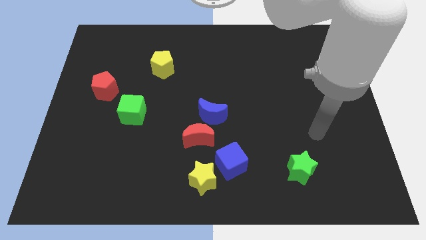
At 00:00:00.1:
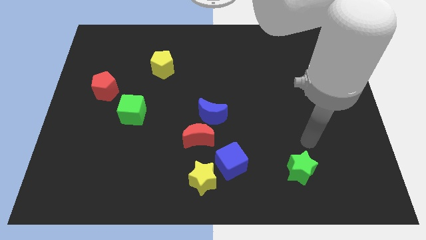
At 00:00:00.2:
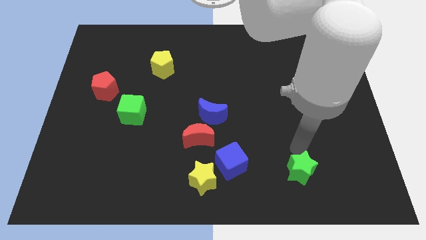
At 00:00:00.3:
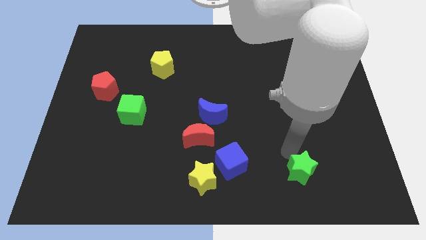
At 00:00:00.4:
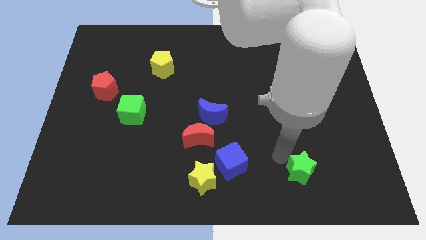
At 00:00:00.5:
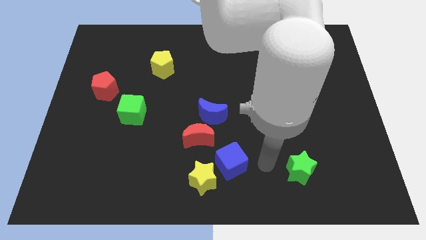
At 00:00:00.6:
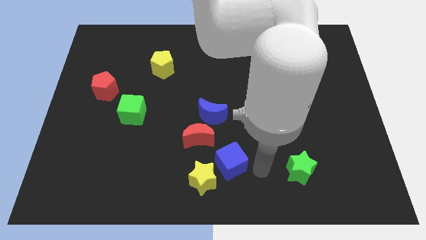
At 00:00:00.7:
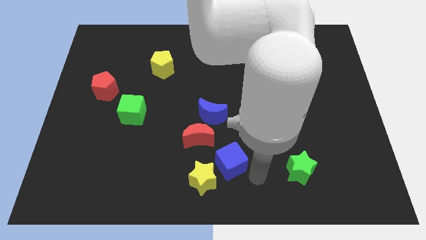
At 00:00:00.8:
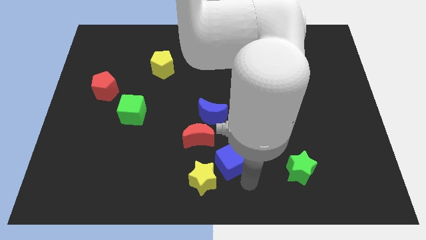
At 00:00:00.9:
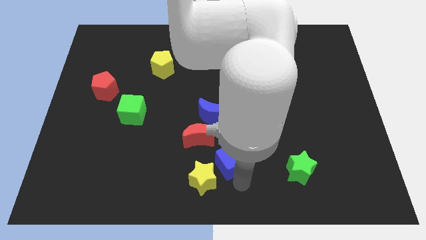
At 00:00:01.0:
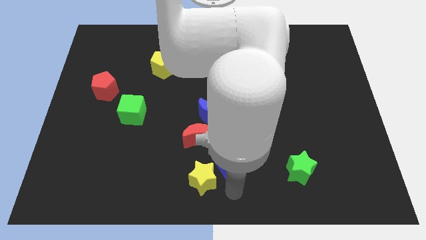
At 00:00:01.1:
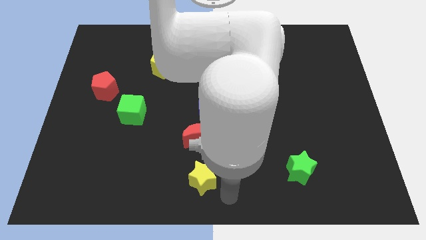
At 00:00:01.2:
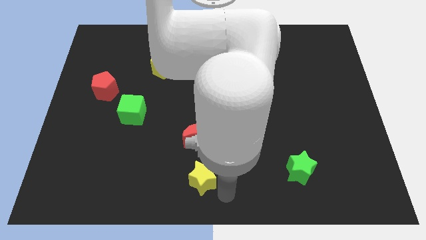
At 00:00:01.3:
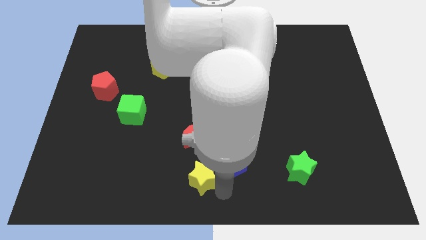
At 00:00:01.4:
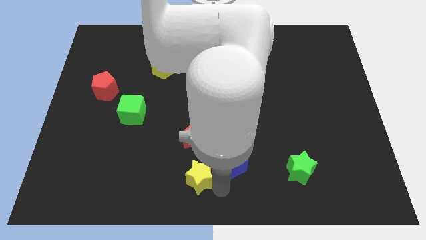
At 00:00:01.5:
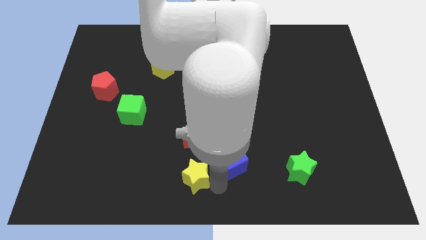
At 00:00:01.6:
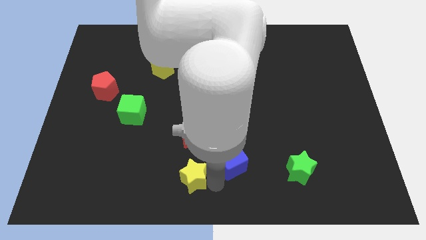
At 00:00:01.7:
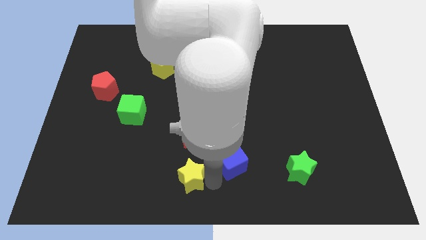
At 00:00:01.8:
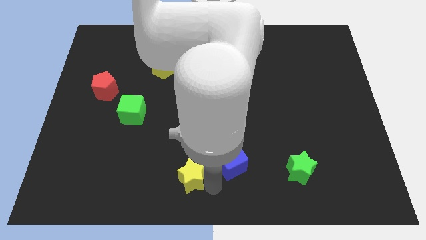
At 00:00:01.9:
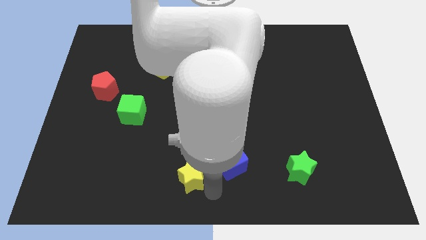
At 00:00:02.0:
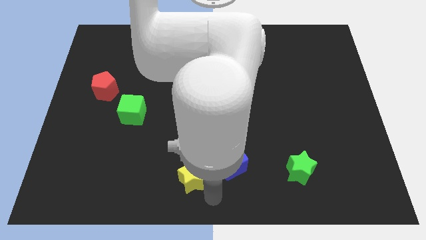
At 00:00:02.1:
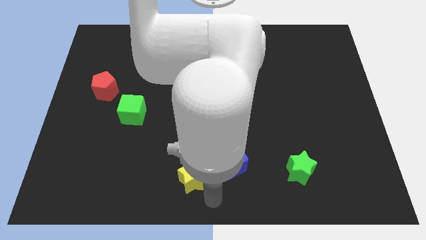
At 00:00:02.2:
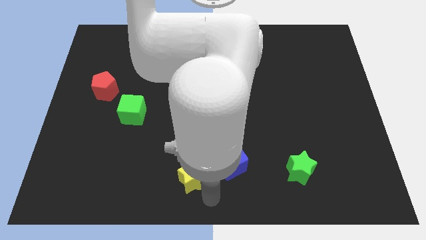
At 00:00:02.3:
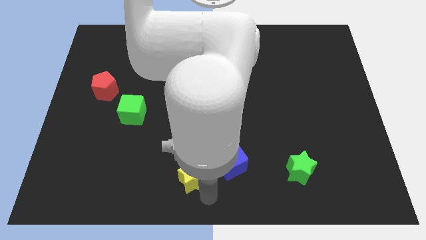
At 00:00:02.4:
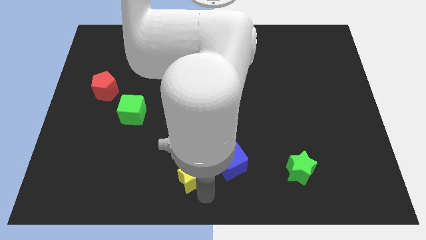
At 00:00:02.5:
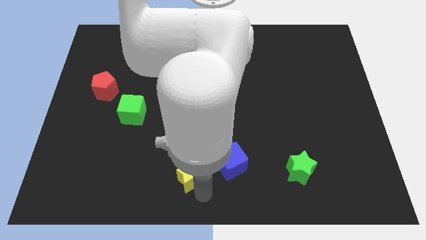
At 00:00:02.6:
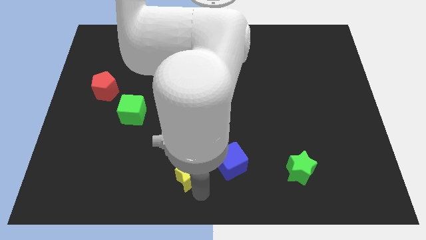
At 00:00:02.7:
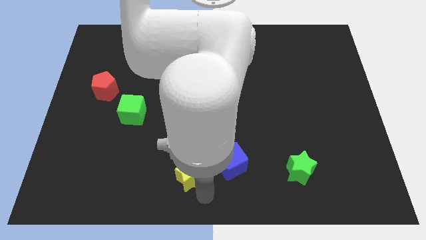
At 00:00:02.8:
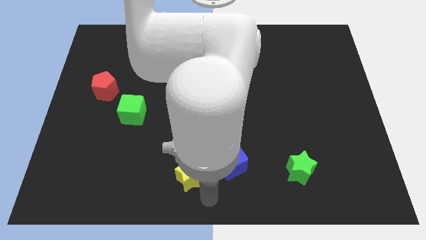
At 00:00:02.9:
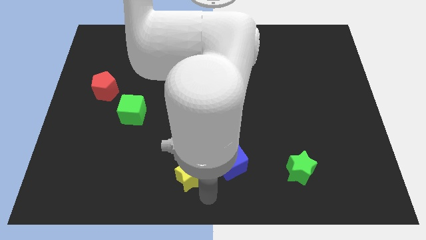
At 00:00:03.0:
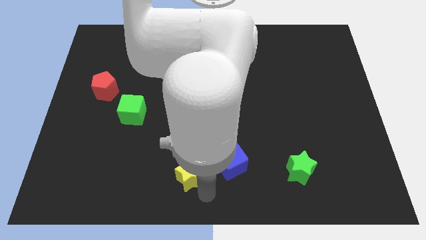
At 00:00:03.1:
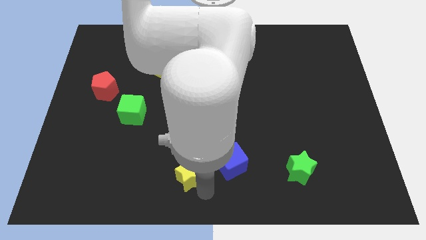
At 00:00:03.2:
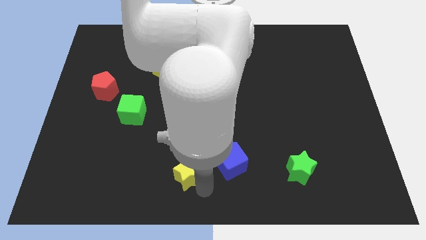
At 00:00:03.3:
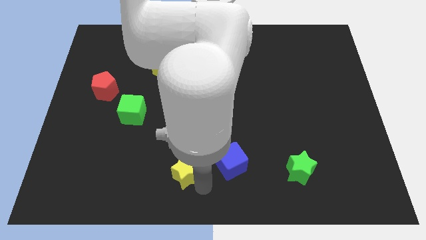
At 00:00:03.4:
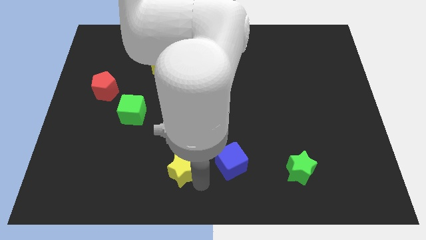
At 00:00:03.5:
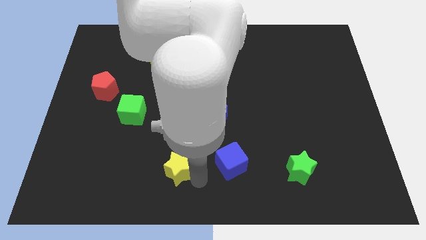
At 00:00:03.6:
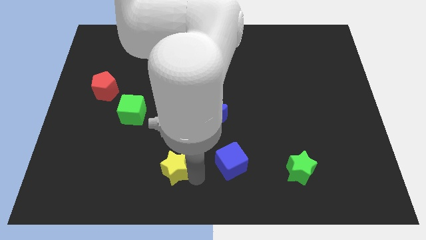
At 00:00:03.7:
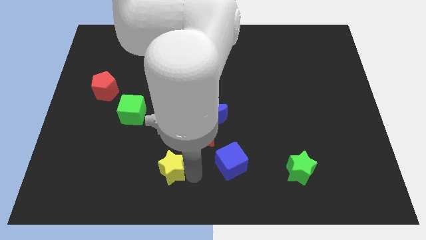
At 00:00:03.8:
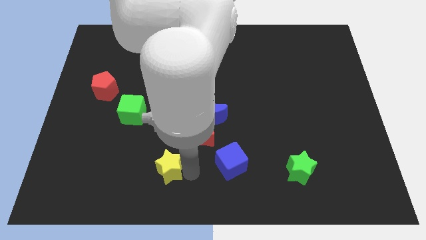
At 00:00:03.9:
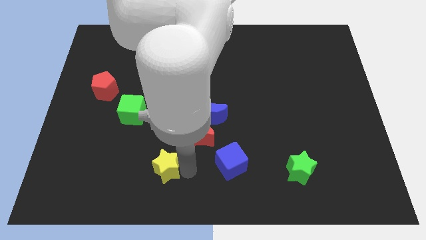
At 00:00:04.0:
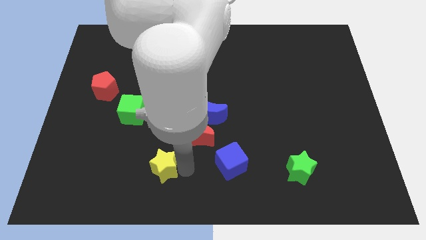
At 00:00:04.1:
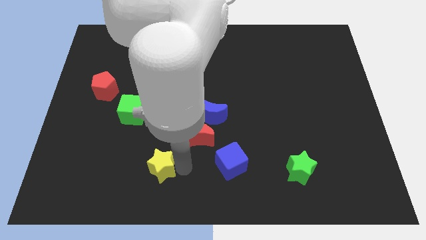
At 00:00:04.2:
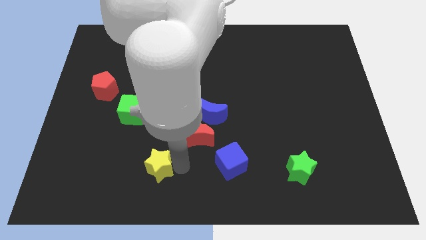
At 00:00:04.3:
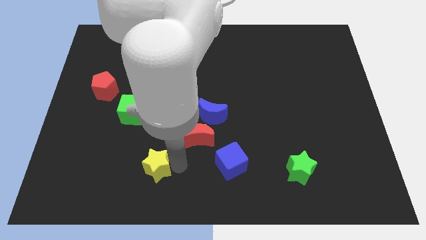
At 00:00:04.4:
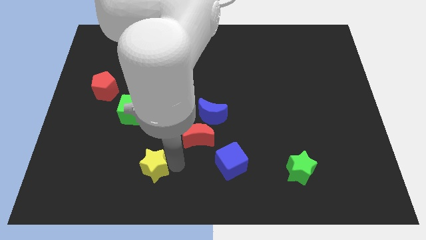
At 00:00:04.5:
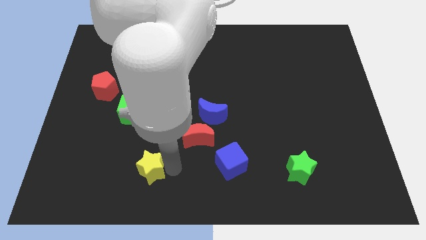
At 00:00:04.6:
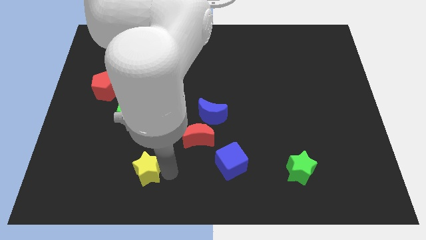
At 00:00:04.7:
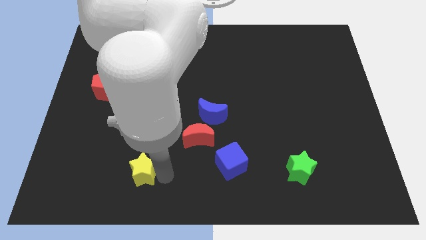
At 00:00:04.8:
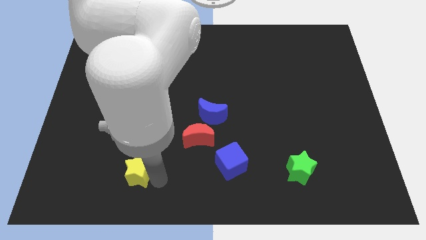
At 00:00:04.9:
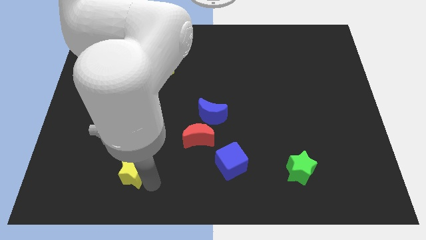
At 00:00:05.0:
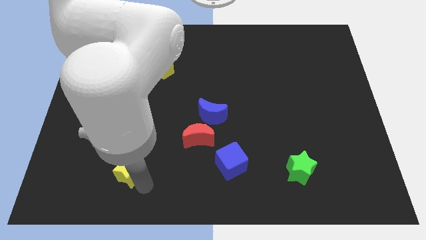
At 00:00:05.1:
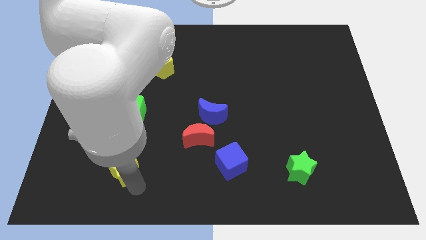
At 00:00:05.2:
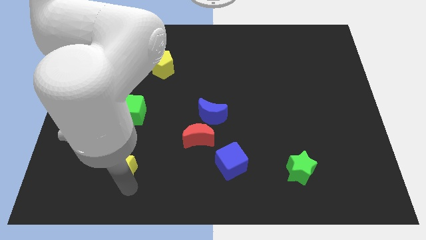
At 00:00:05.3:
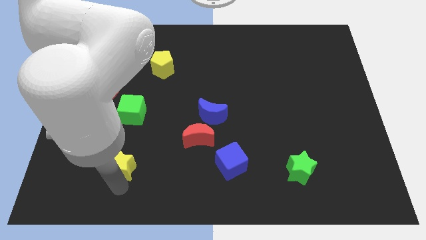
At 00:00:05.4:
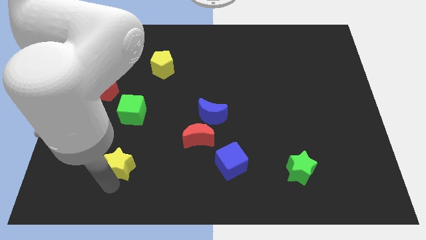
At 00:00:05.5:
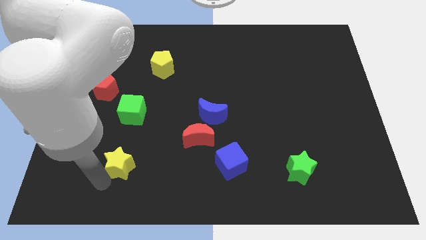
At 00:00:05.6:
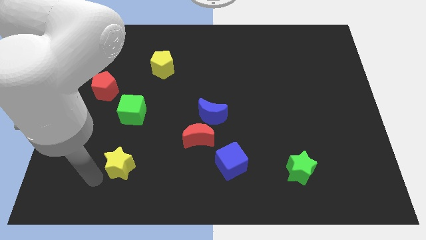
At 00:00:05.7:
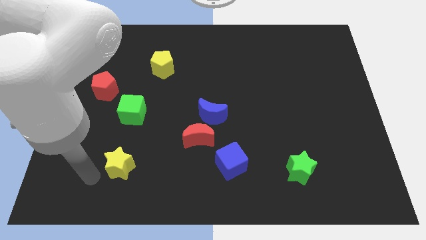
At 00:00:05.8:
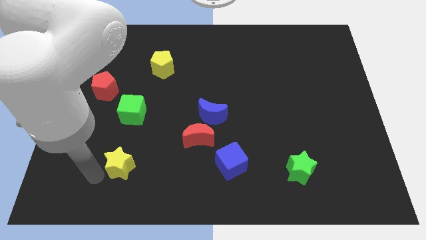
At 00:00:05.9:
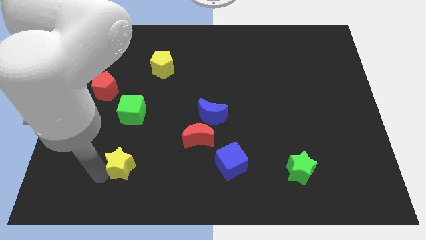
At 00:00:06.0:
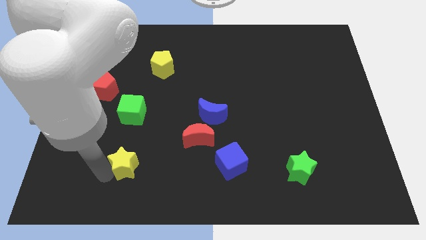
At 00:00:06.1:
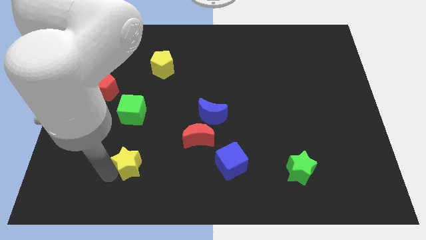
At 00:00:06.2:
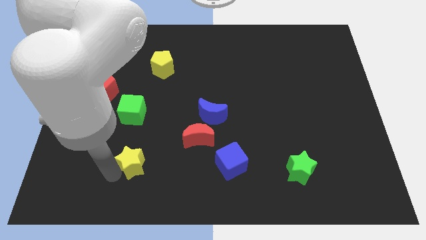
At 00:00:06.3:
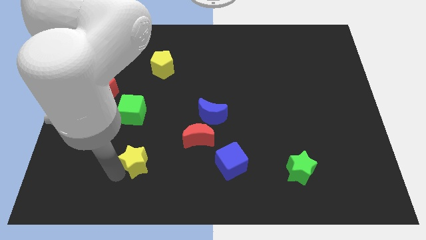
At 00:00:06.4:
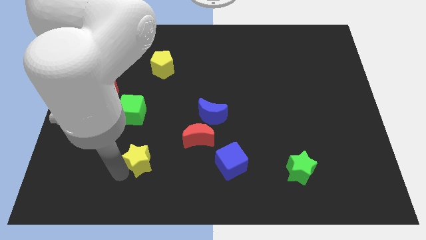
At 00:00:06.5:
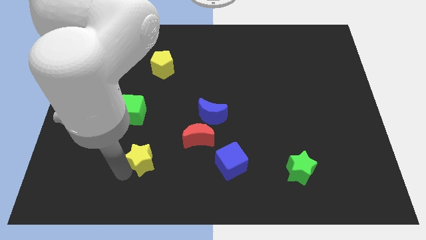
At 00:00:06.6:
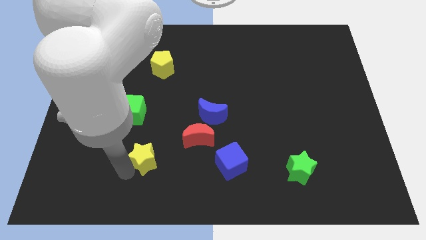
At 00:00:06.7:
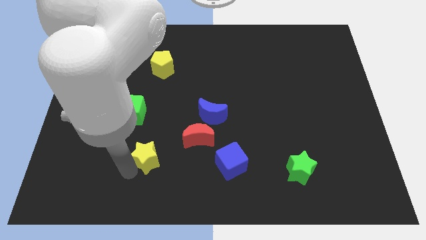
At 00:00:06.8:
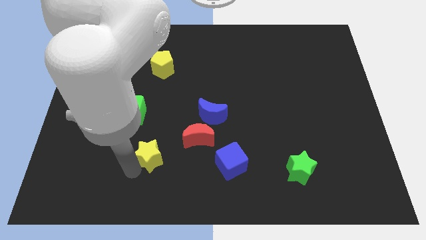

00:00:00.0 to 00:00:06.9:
push the yellow star just left of the red moon
